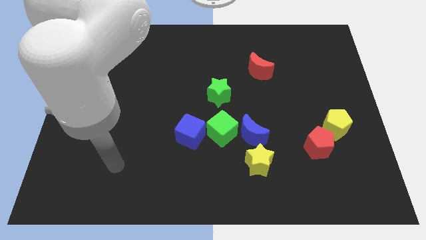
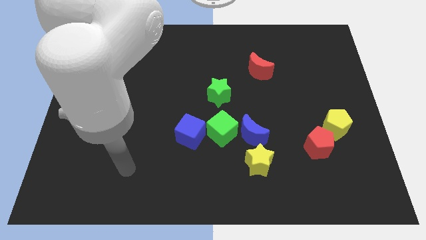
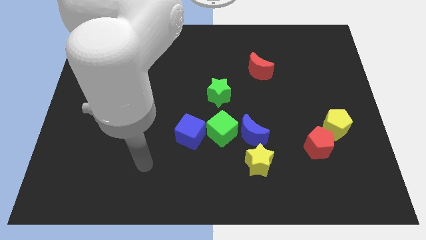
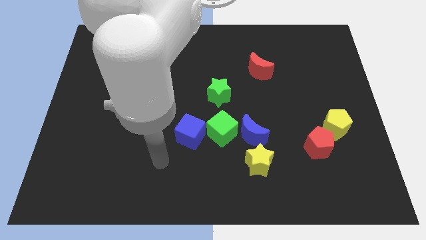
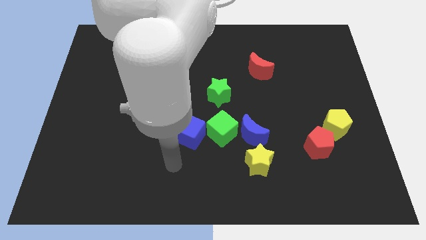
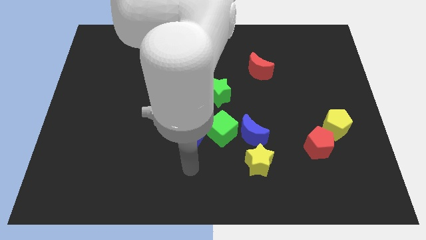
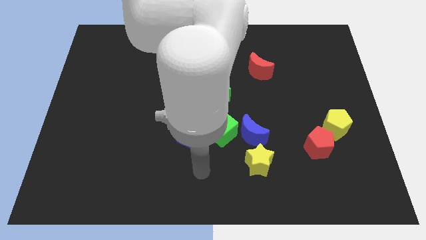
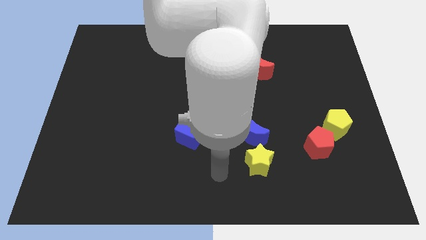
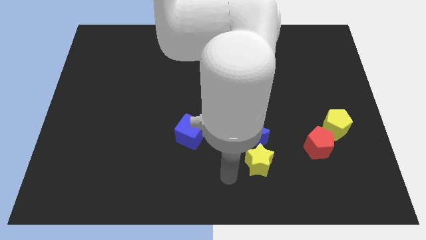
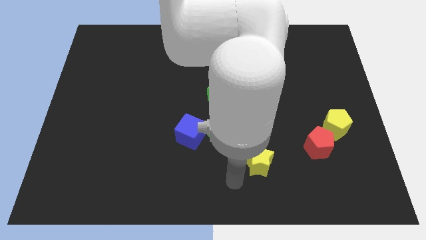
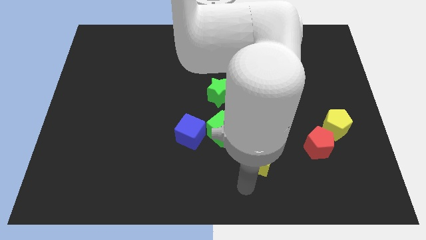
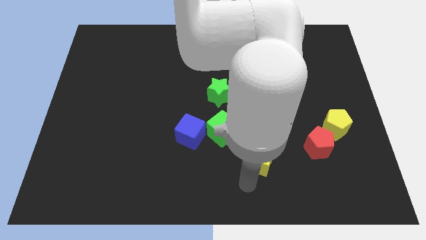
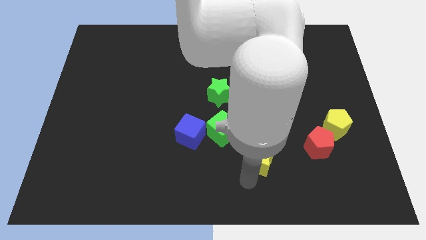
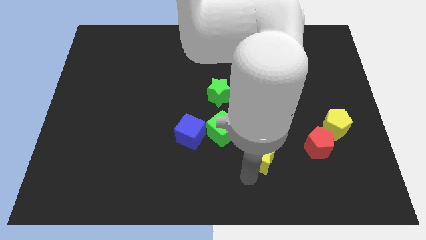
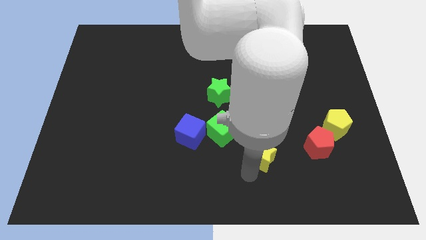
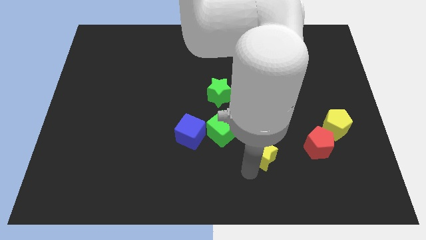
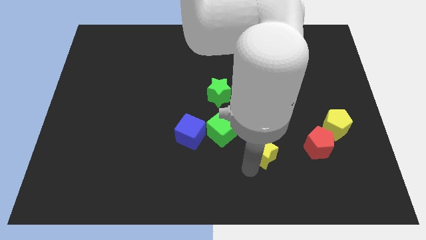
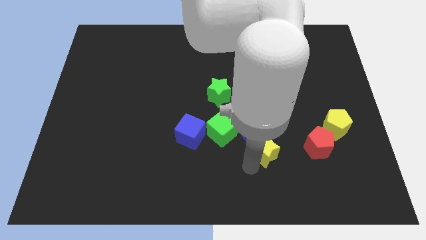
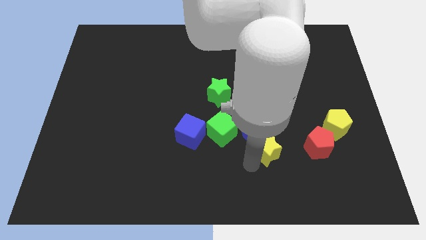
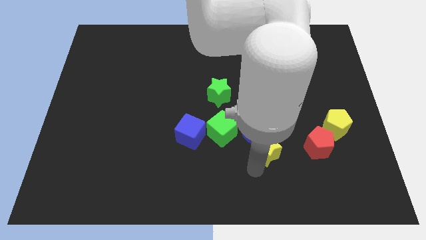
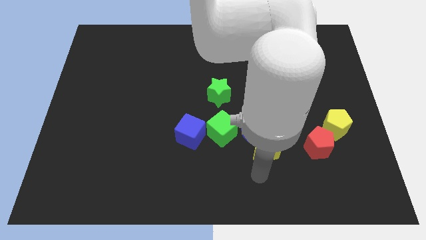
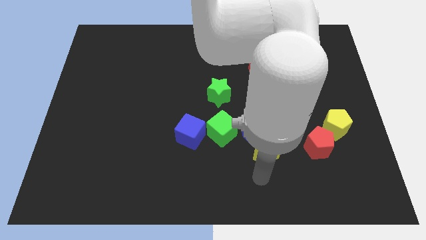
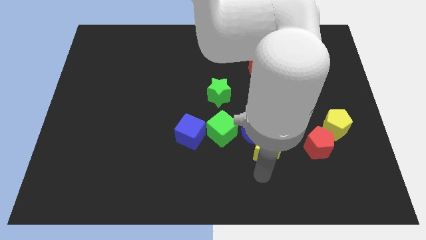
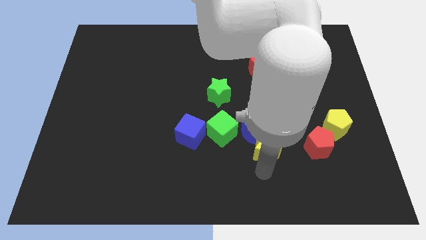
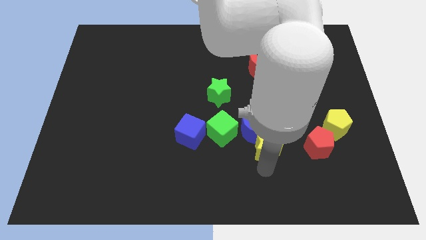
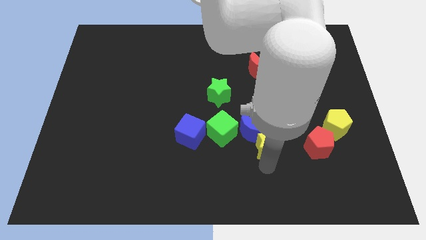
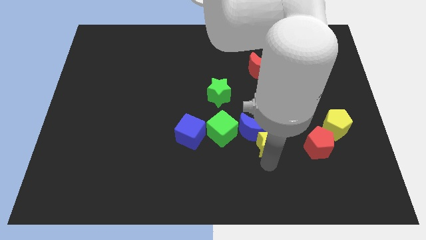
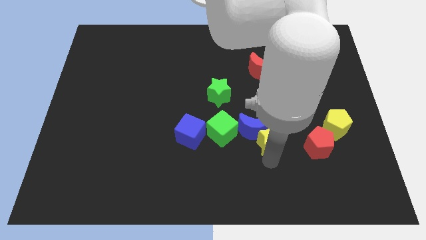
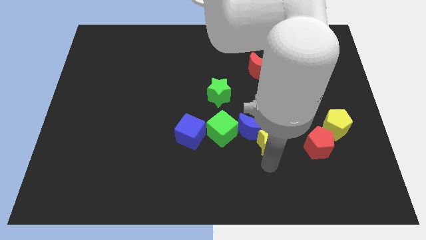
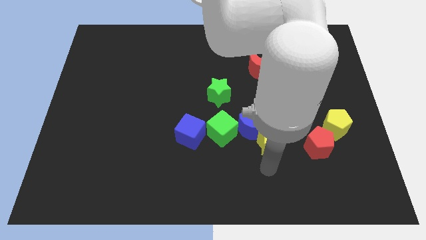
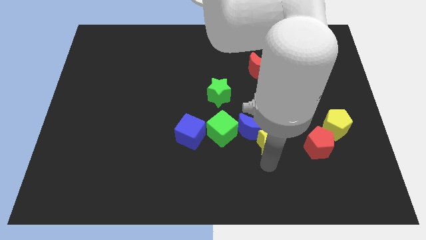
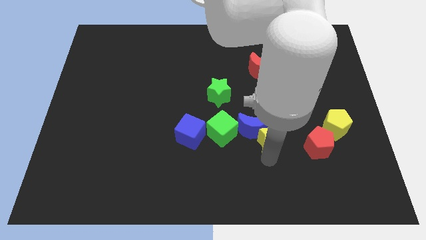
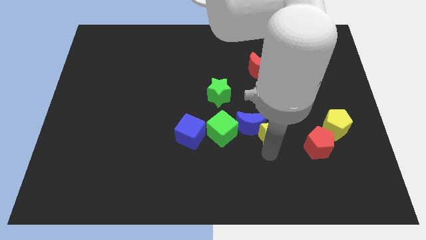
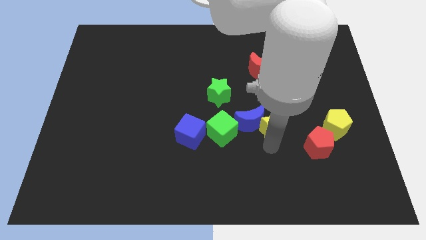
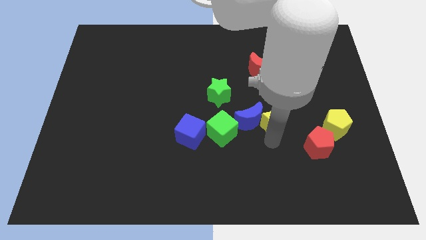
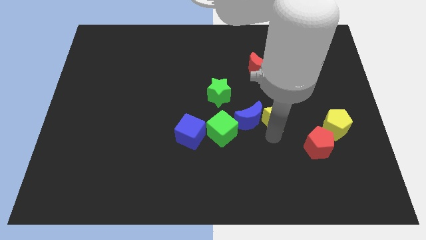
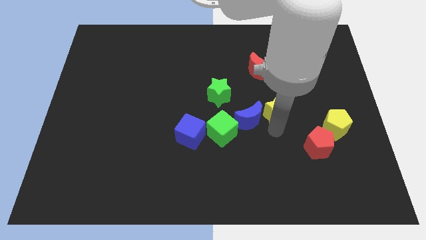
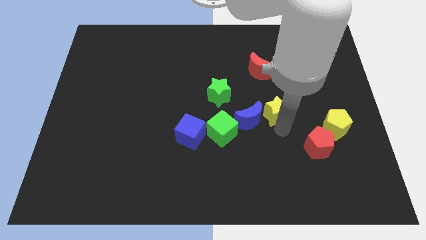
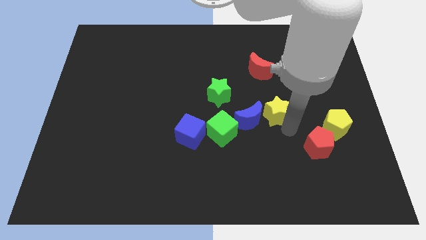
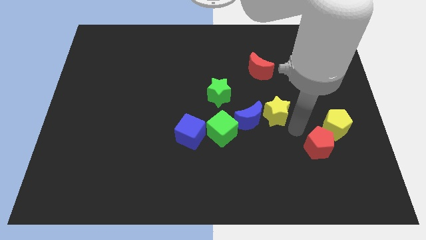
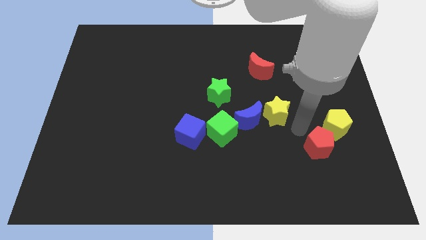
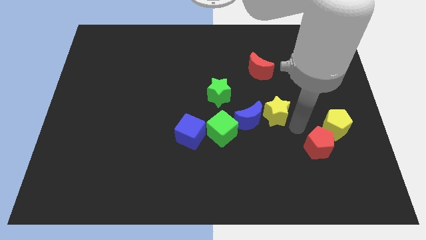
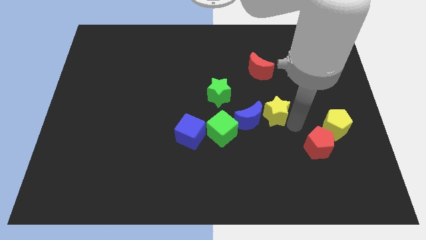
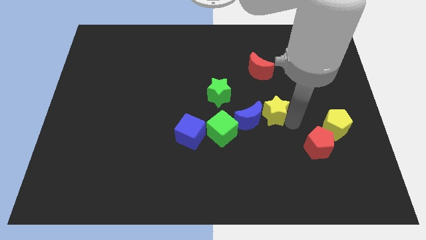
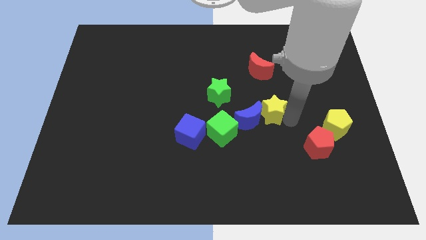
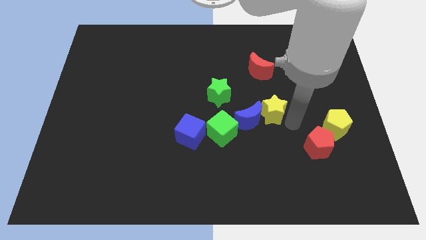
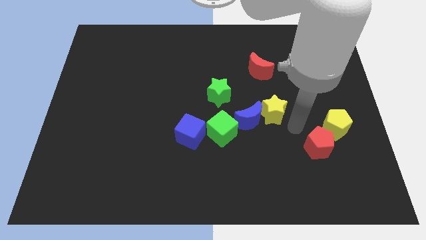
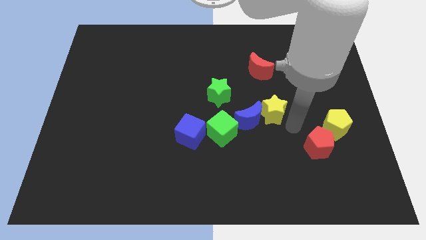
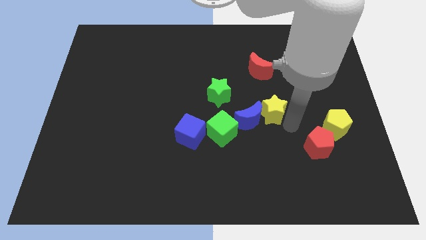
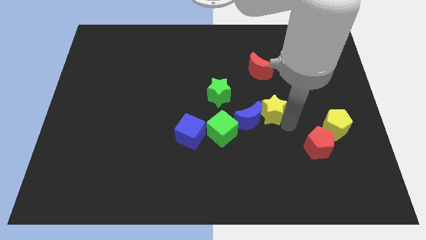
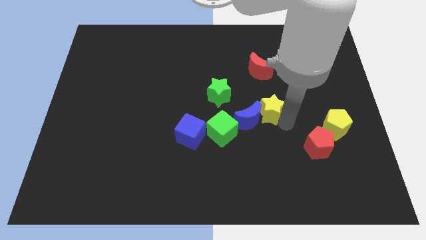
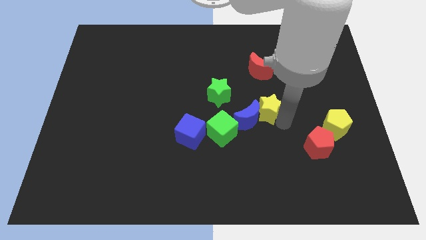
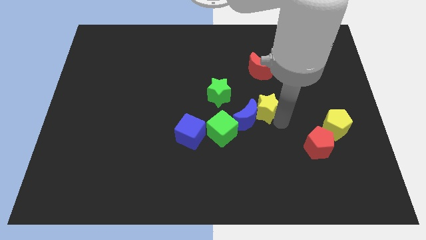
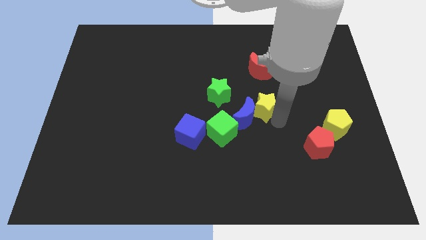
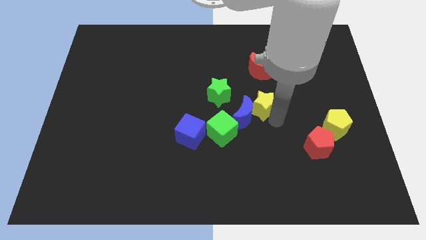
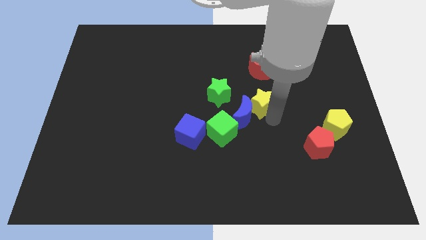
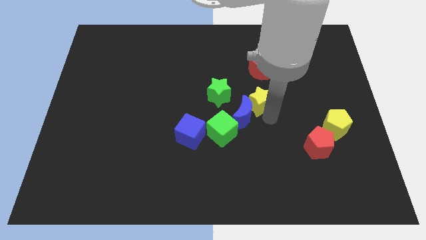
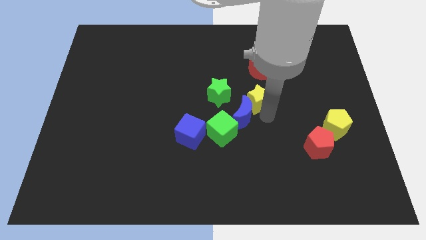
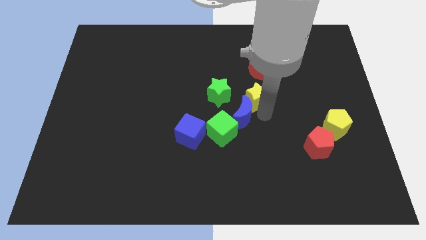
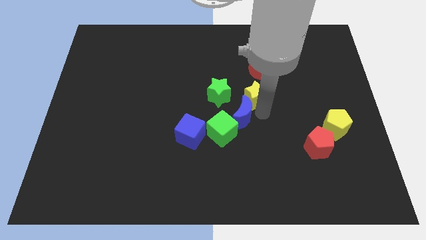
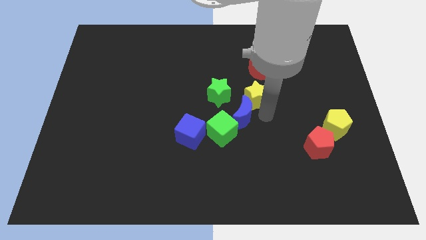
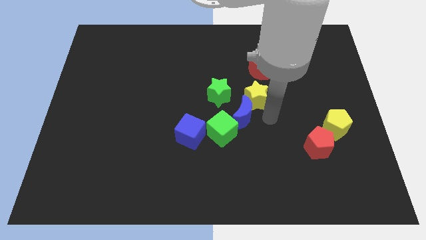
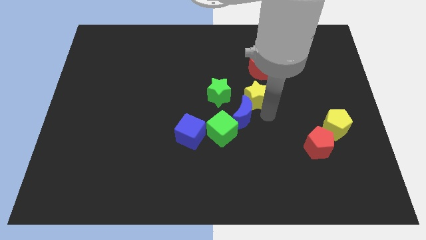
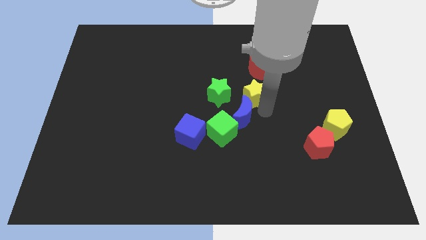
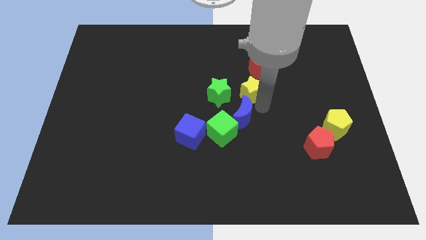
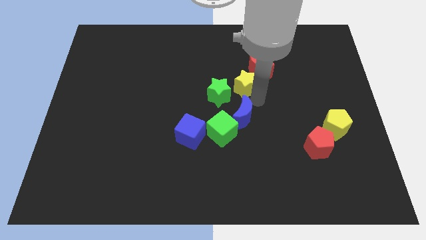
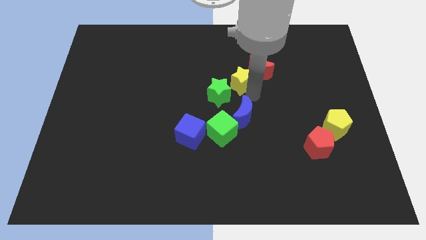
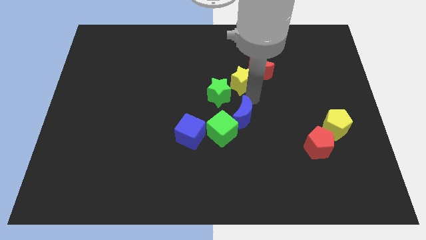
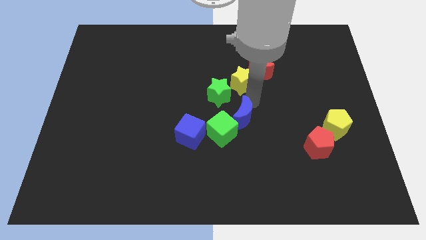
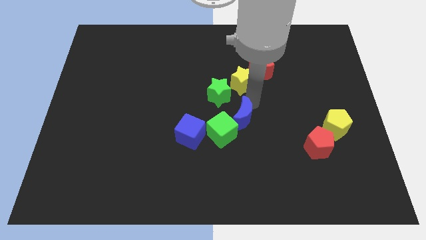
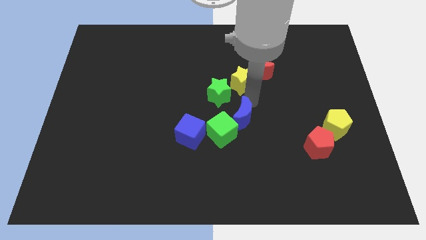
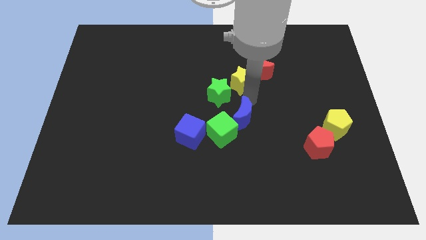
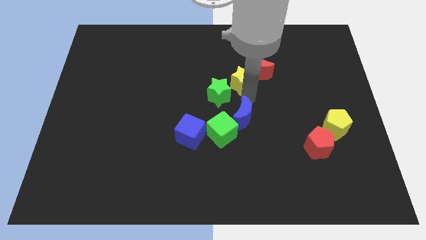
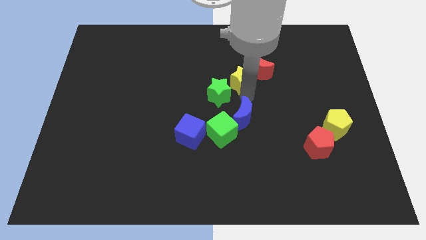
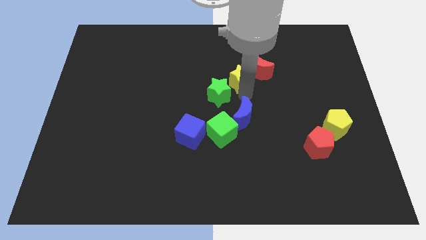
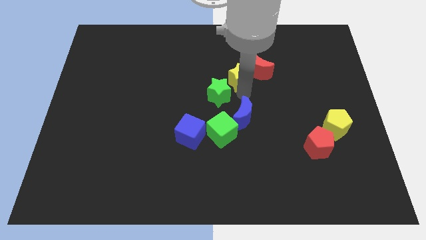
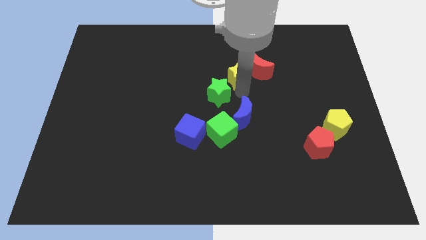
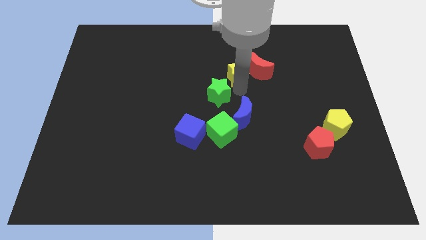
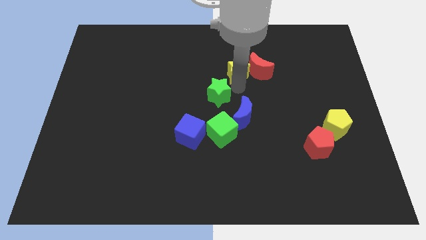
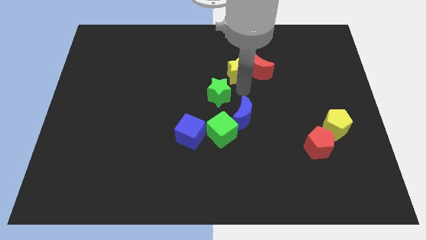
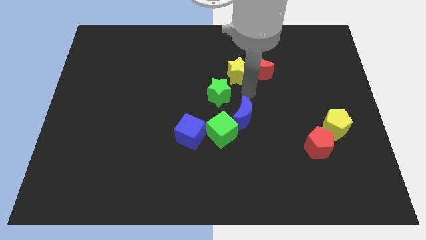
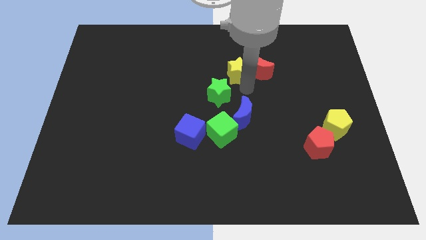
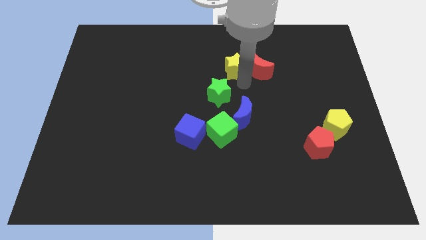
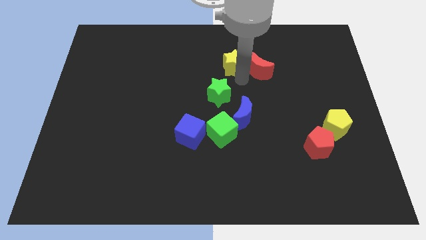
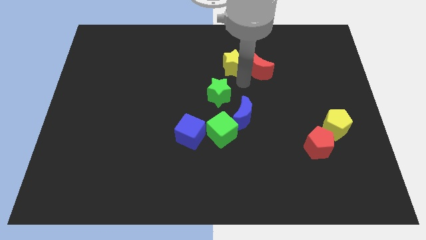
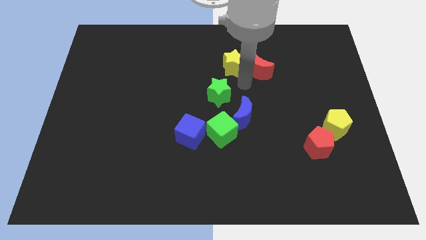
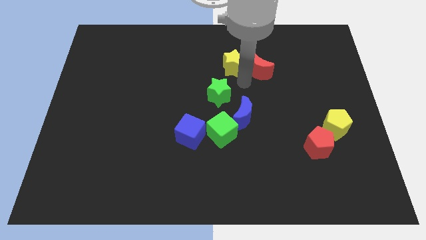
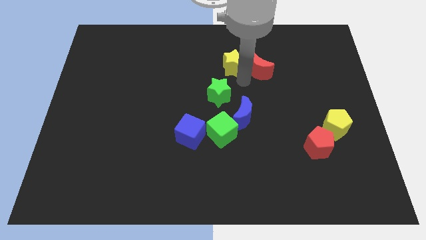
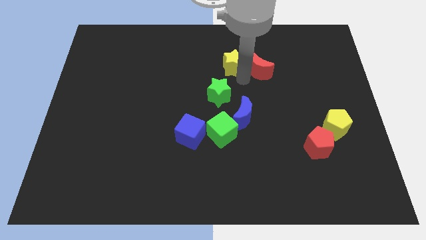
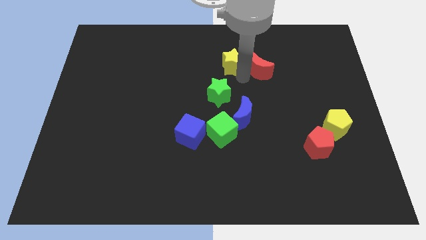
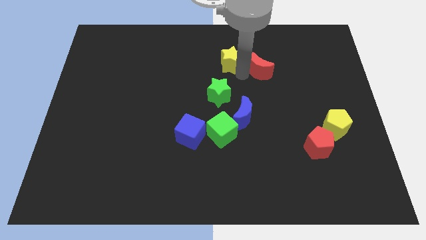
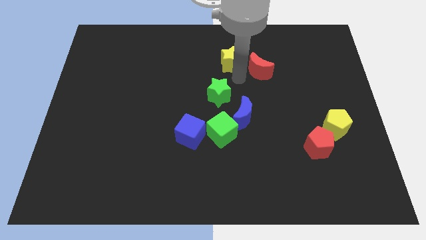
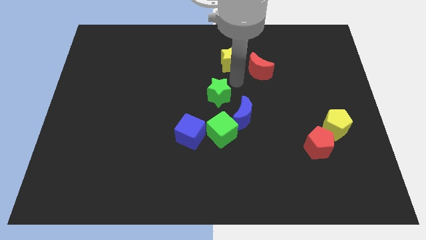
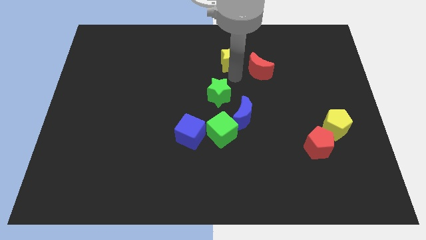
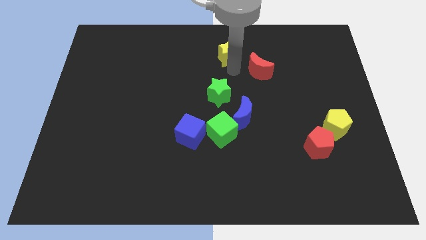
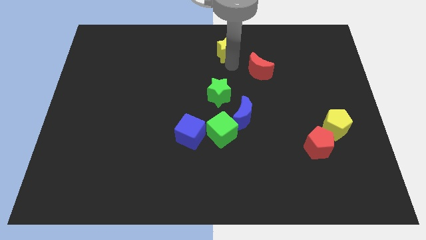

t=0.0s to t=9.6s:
put the yellow star to the towards your base
